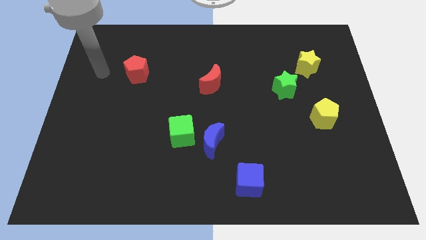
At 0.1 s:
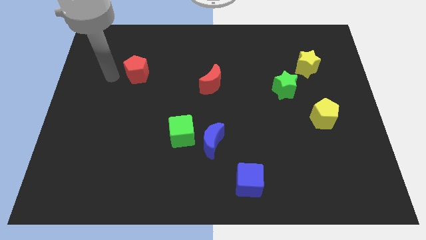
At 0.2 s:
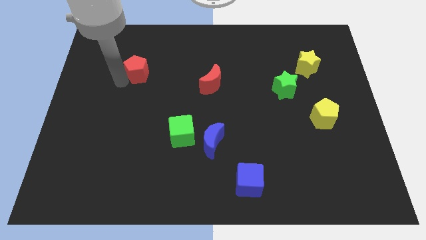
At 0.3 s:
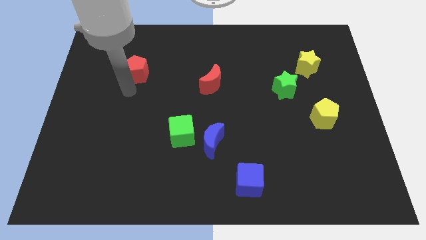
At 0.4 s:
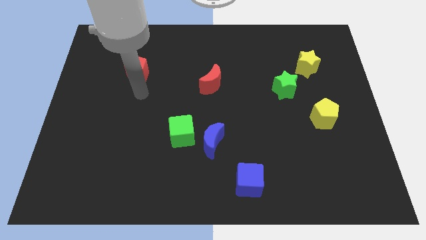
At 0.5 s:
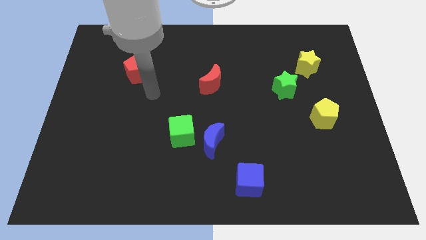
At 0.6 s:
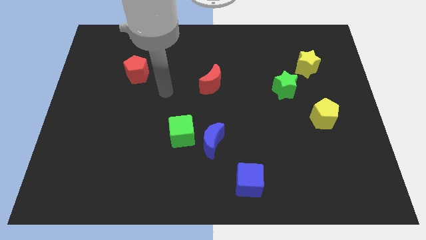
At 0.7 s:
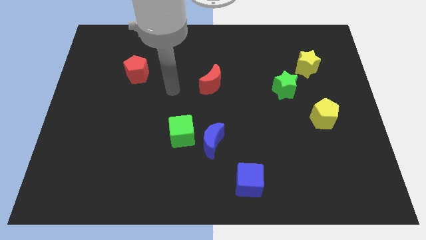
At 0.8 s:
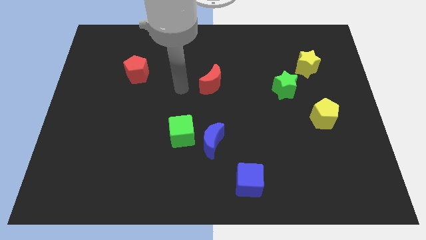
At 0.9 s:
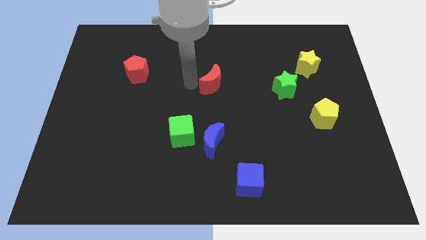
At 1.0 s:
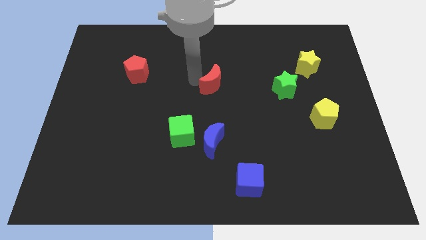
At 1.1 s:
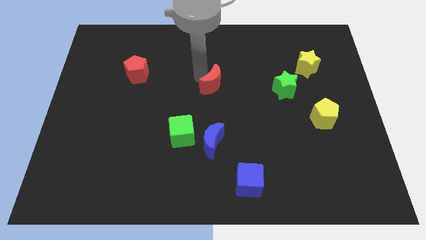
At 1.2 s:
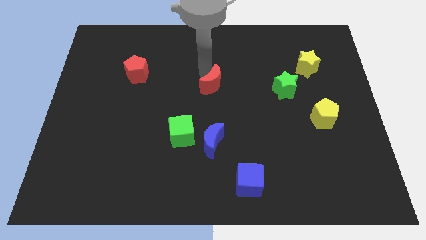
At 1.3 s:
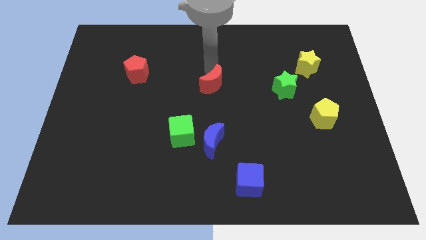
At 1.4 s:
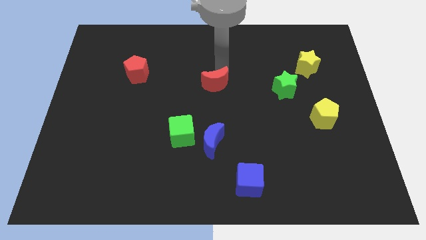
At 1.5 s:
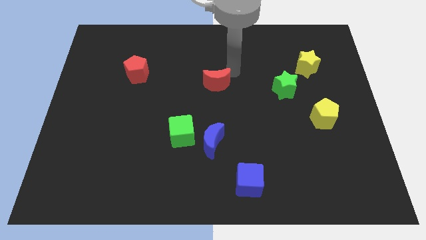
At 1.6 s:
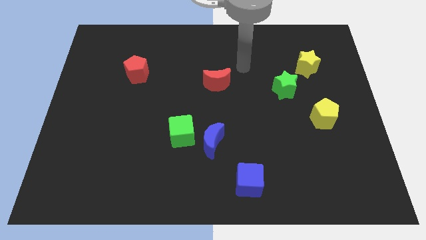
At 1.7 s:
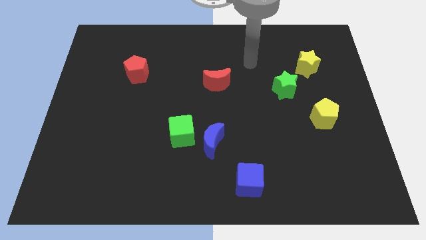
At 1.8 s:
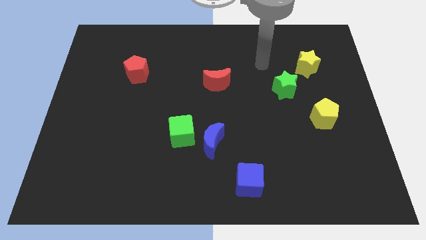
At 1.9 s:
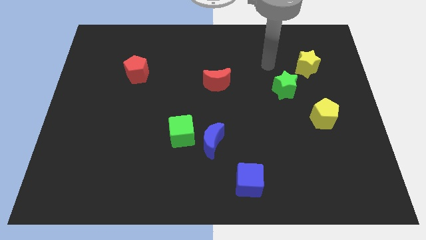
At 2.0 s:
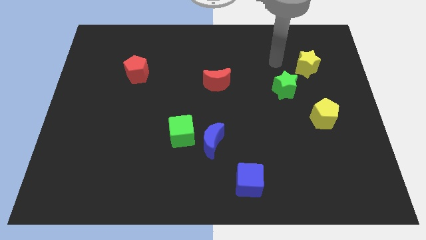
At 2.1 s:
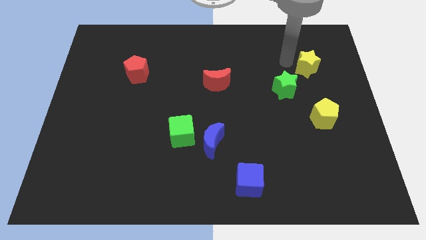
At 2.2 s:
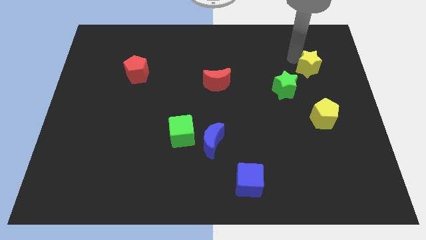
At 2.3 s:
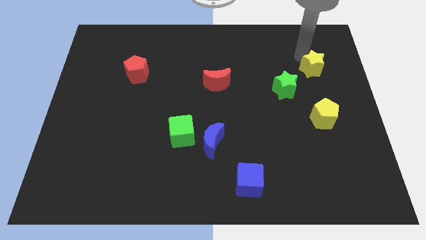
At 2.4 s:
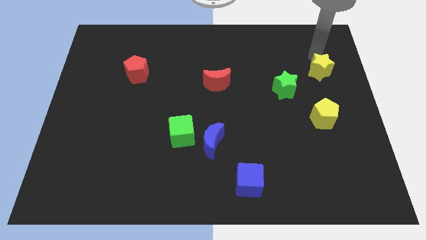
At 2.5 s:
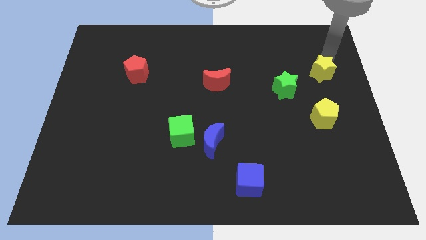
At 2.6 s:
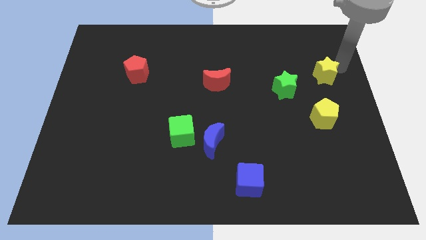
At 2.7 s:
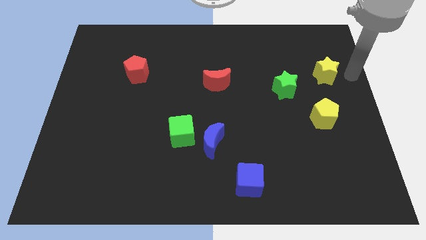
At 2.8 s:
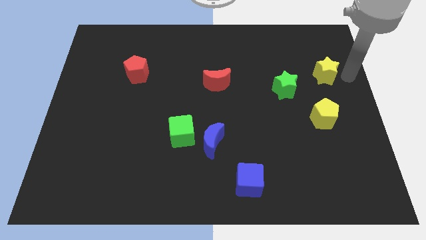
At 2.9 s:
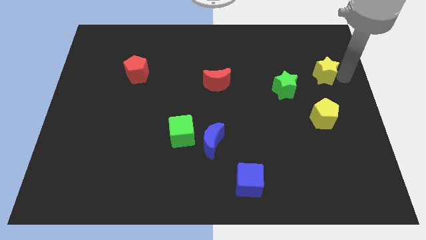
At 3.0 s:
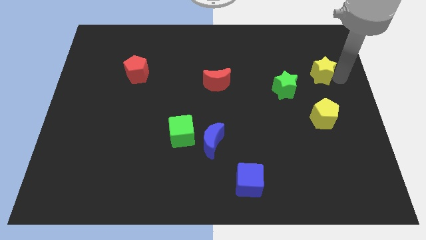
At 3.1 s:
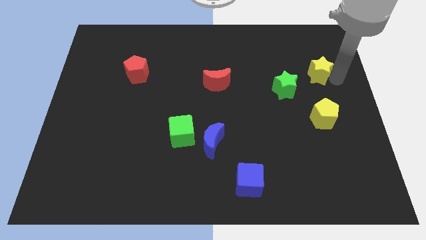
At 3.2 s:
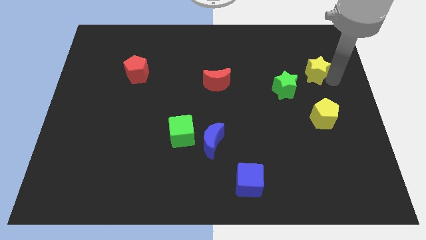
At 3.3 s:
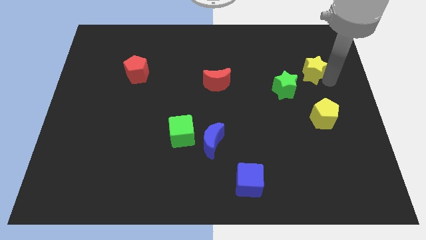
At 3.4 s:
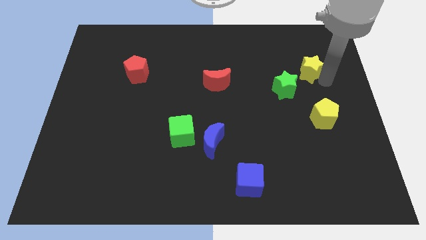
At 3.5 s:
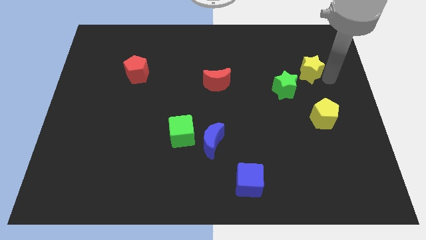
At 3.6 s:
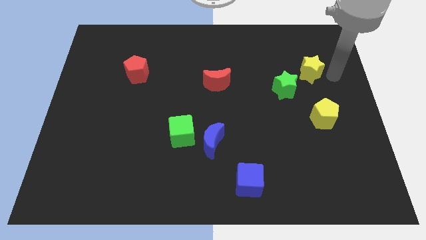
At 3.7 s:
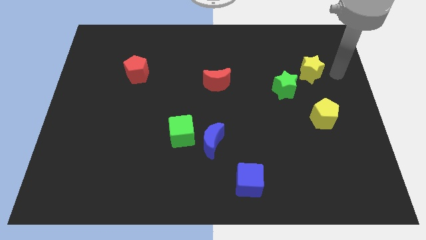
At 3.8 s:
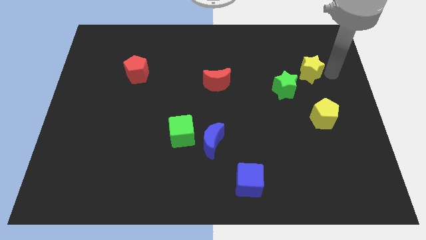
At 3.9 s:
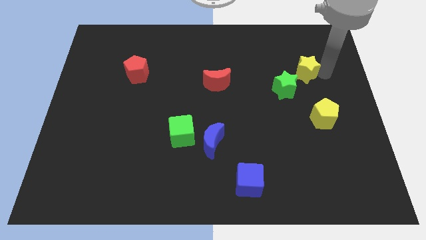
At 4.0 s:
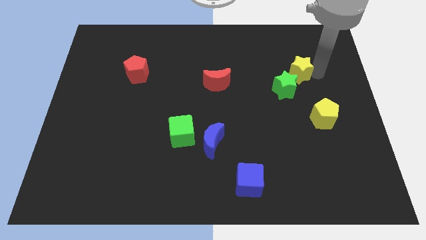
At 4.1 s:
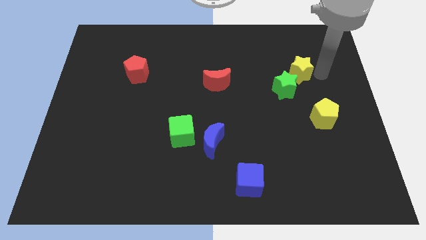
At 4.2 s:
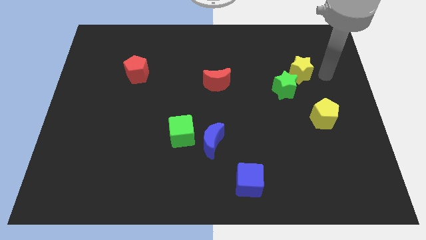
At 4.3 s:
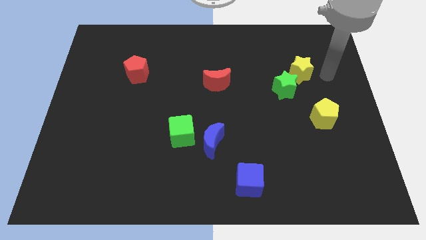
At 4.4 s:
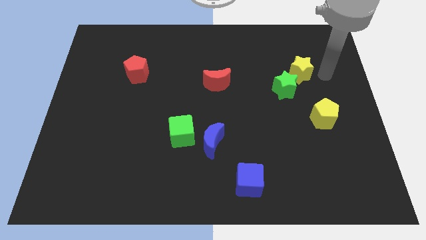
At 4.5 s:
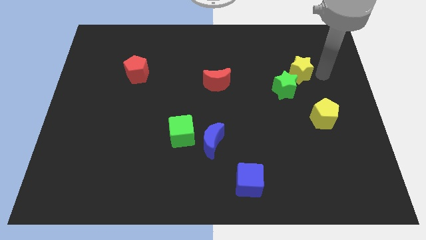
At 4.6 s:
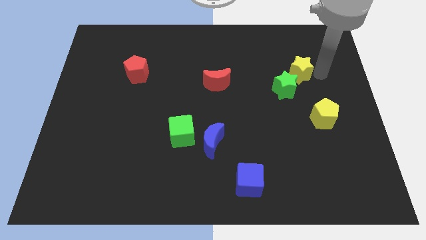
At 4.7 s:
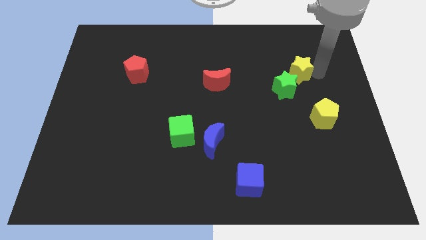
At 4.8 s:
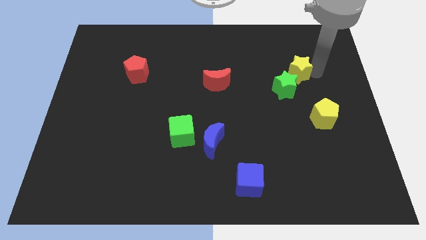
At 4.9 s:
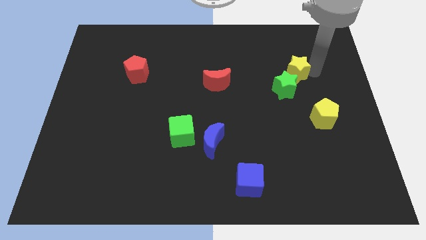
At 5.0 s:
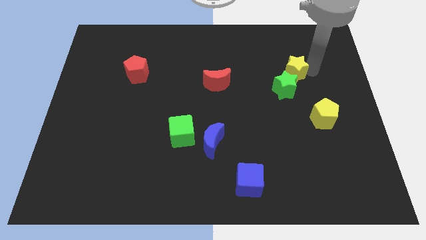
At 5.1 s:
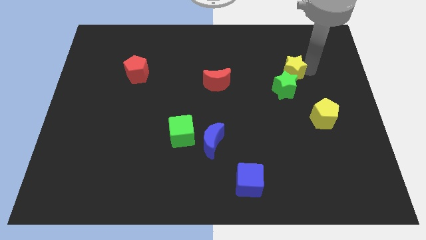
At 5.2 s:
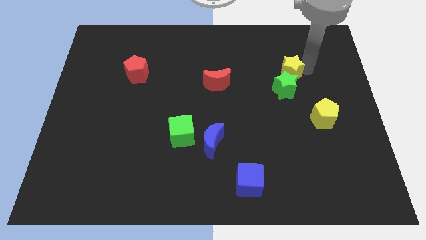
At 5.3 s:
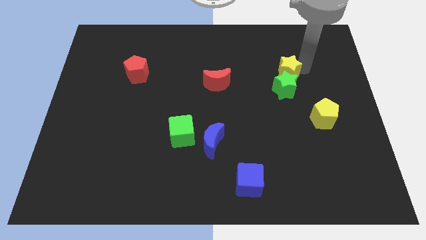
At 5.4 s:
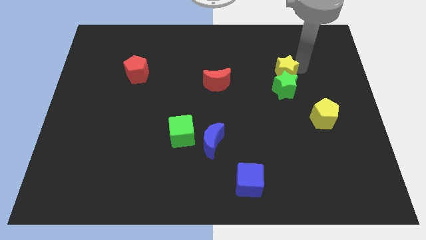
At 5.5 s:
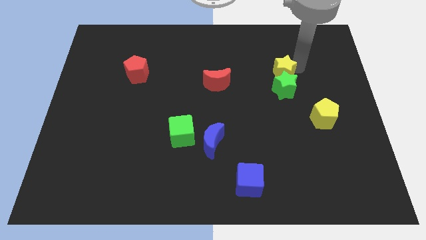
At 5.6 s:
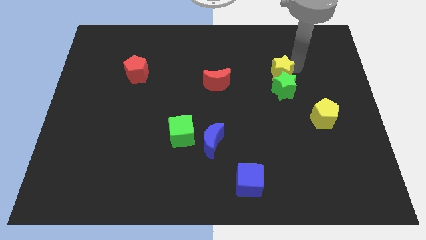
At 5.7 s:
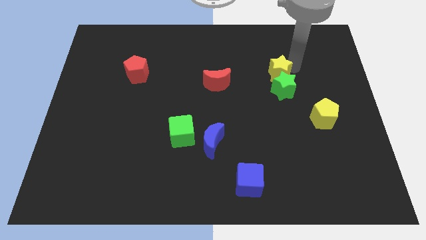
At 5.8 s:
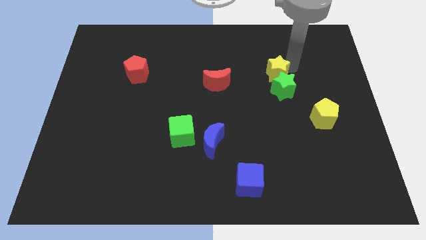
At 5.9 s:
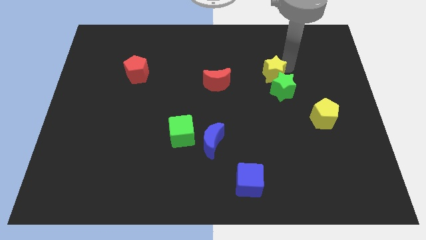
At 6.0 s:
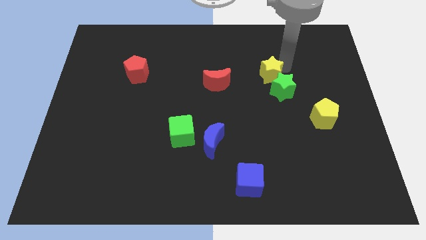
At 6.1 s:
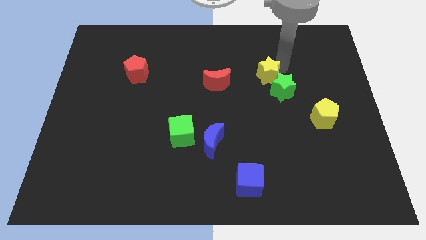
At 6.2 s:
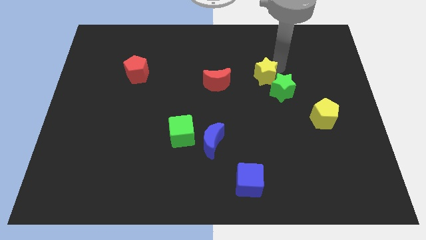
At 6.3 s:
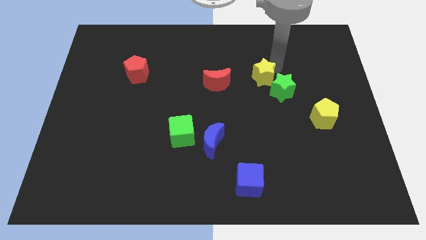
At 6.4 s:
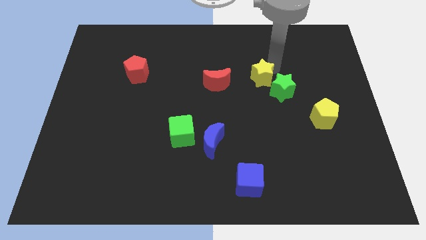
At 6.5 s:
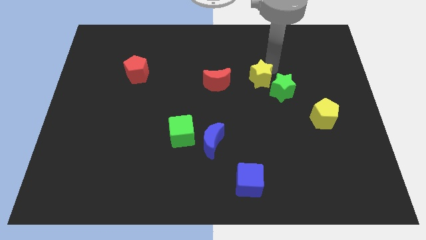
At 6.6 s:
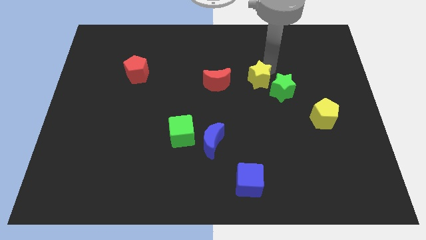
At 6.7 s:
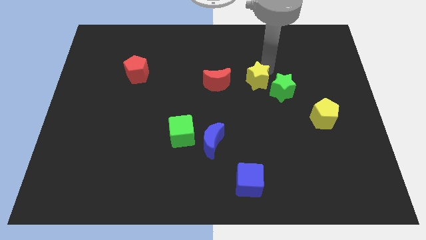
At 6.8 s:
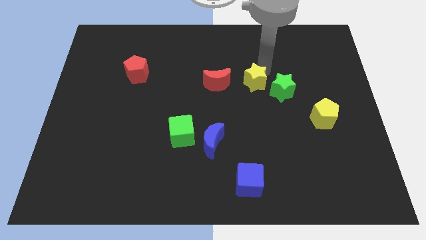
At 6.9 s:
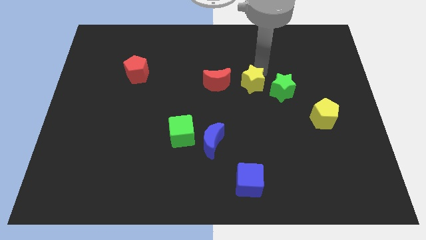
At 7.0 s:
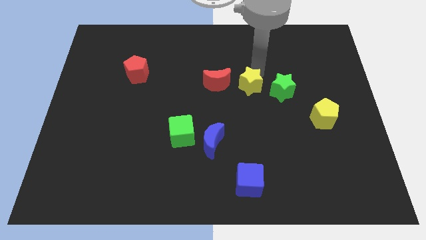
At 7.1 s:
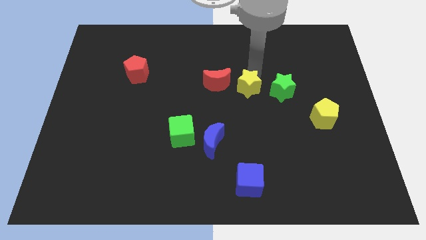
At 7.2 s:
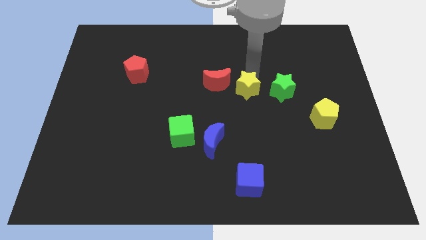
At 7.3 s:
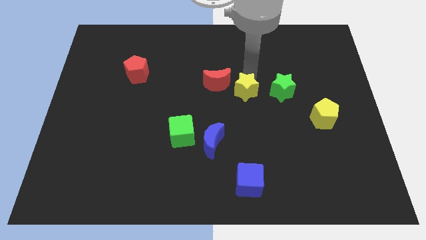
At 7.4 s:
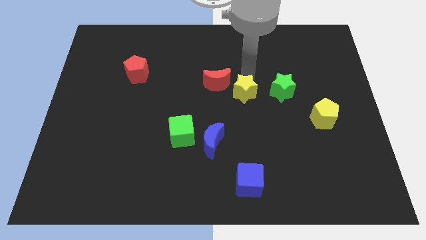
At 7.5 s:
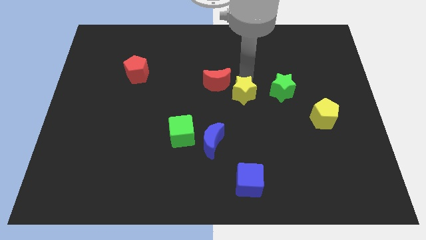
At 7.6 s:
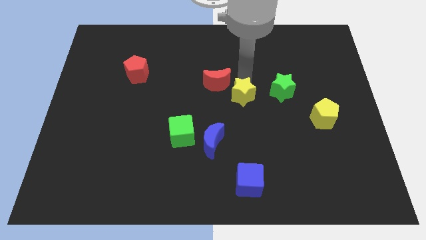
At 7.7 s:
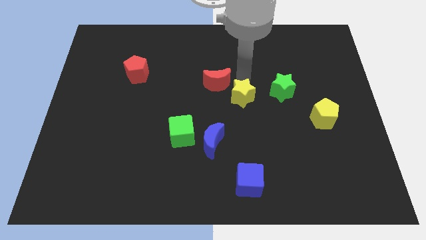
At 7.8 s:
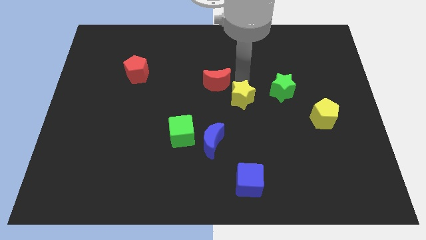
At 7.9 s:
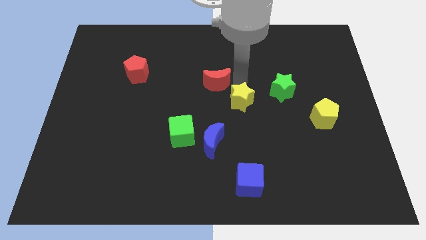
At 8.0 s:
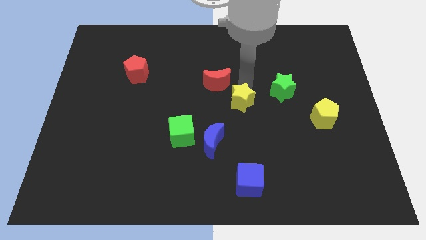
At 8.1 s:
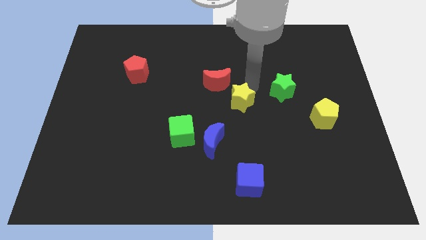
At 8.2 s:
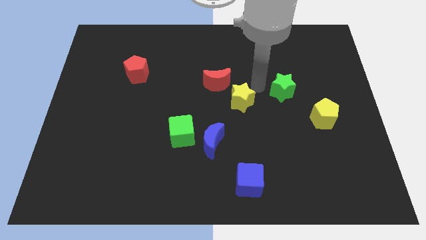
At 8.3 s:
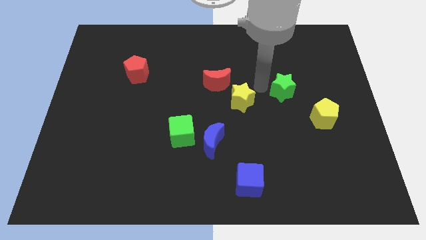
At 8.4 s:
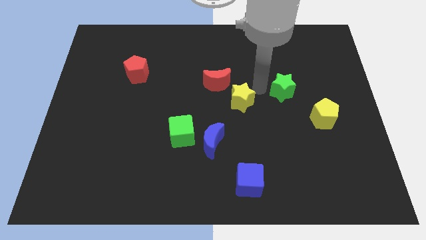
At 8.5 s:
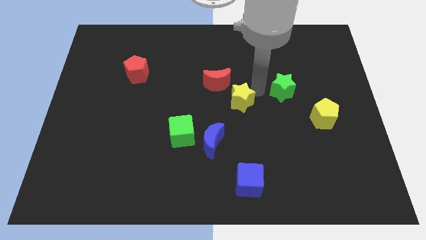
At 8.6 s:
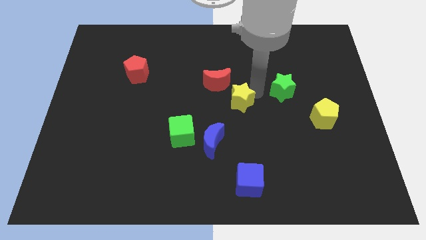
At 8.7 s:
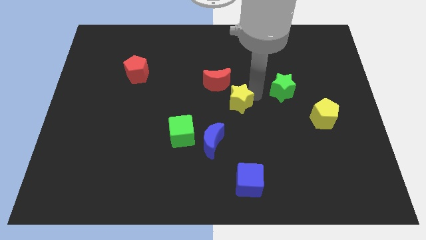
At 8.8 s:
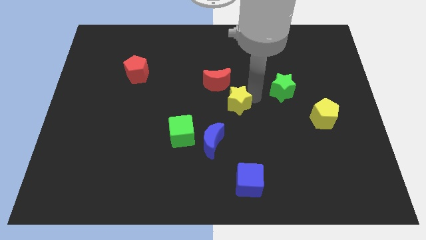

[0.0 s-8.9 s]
move the yellow star below the red moon
